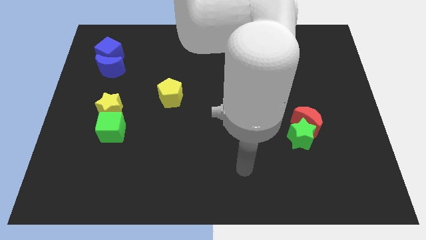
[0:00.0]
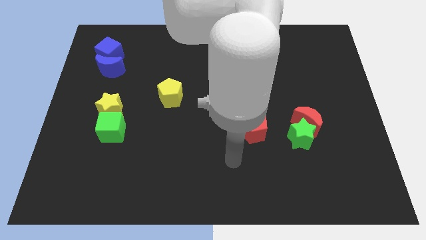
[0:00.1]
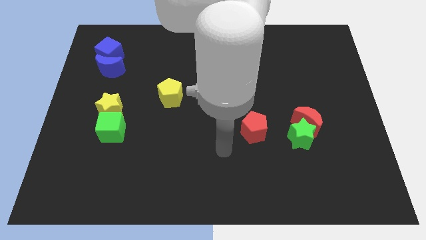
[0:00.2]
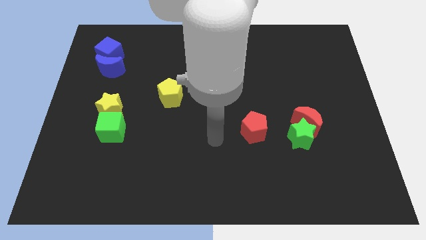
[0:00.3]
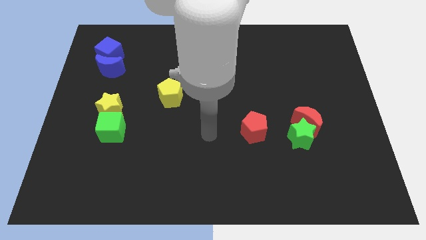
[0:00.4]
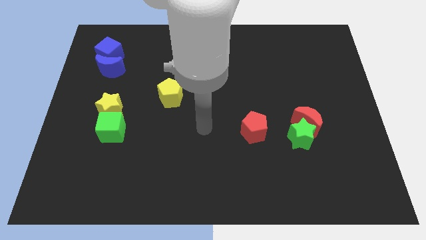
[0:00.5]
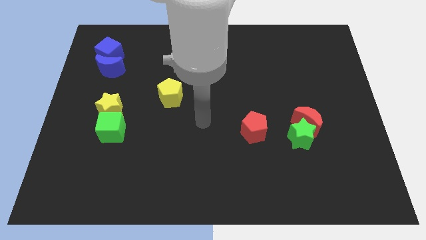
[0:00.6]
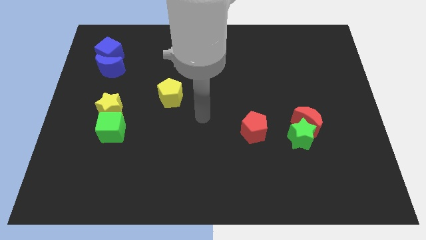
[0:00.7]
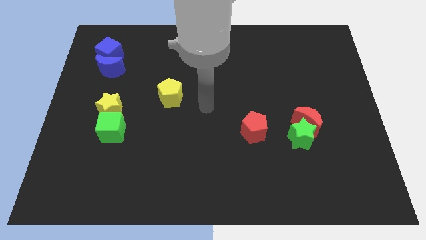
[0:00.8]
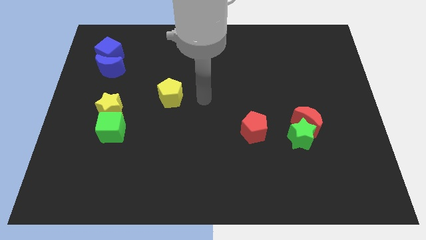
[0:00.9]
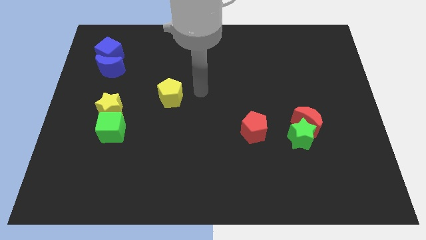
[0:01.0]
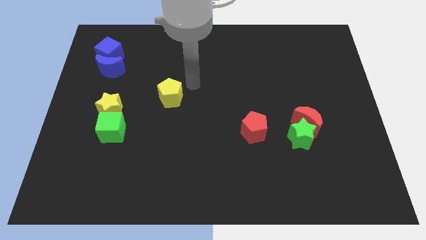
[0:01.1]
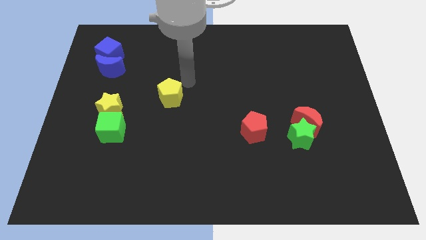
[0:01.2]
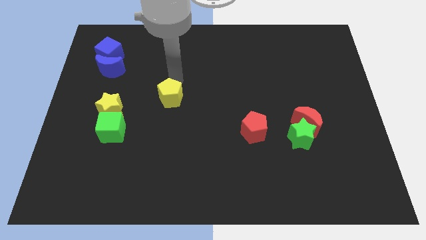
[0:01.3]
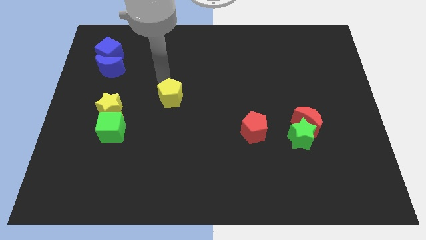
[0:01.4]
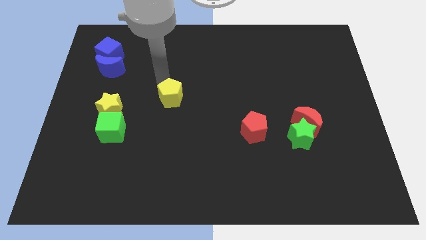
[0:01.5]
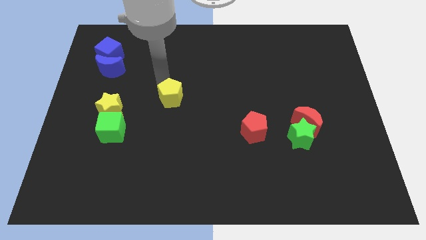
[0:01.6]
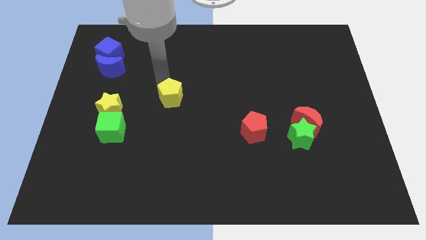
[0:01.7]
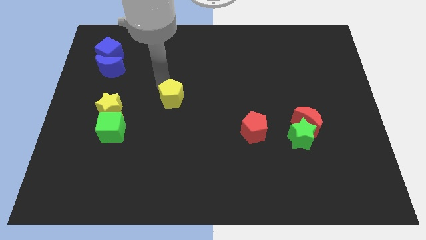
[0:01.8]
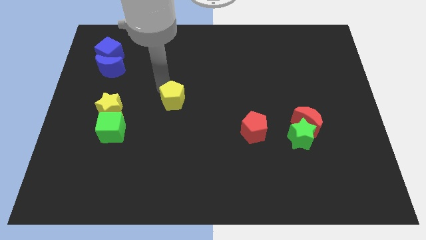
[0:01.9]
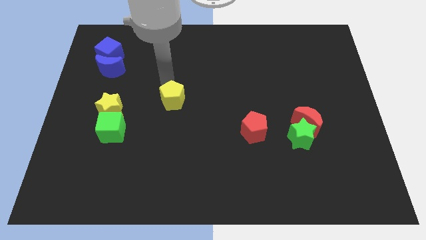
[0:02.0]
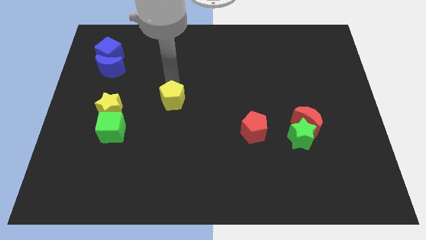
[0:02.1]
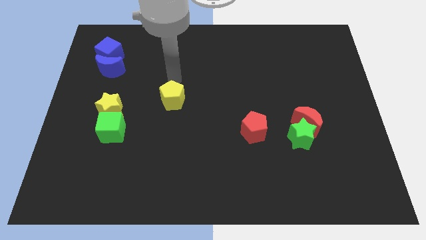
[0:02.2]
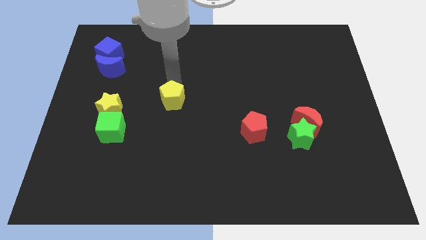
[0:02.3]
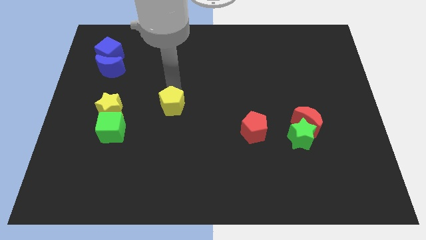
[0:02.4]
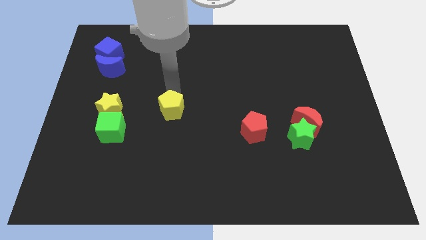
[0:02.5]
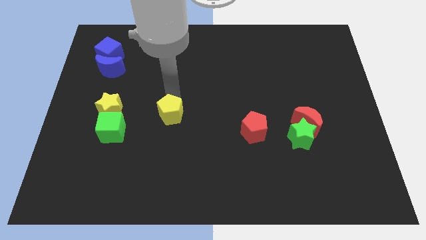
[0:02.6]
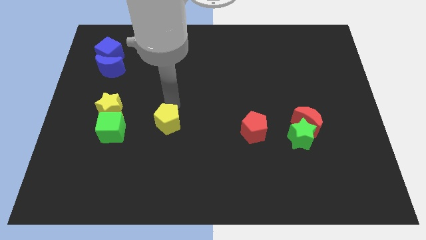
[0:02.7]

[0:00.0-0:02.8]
slightly slide the yellow pentagon downwards

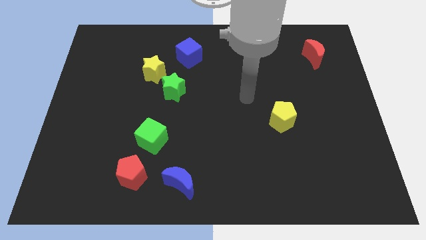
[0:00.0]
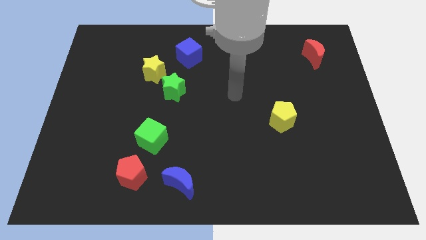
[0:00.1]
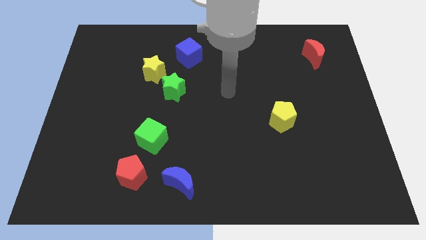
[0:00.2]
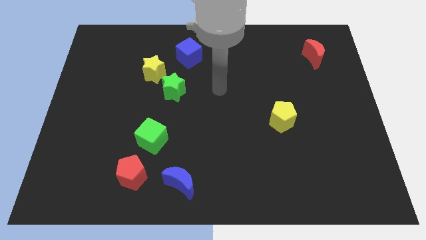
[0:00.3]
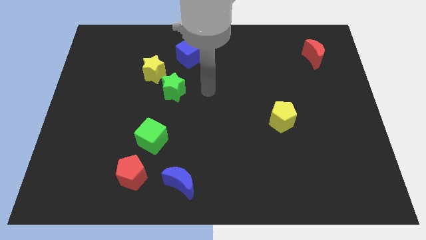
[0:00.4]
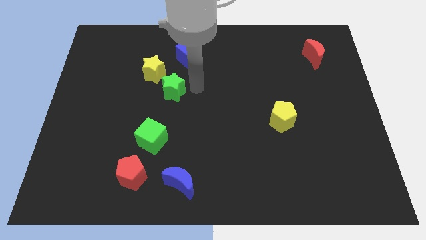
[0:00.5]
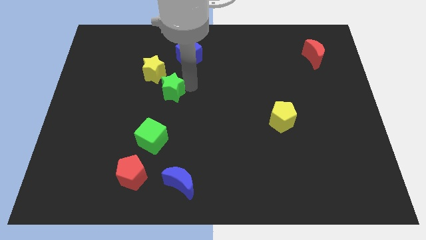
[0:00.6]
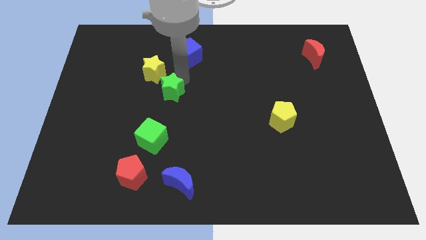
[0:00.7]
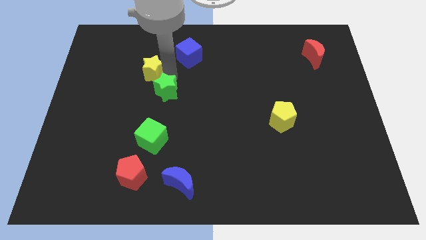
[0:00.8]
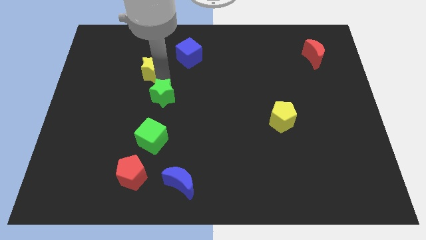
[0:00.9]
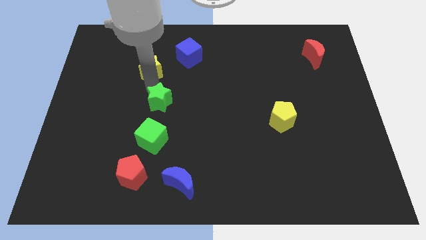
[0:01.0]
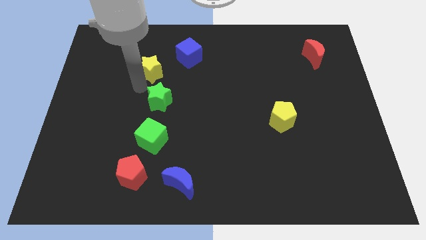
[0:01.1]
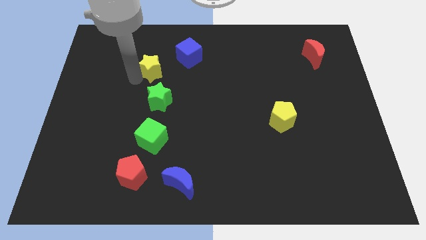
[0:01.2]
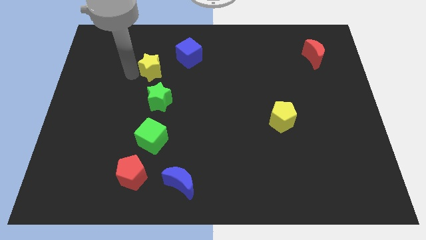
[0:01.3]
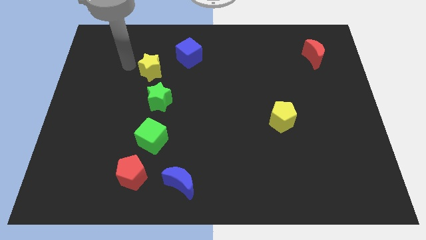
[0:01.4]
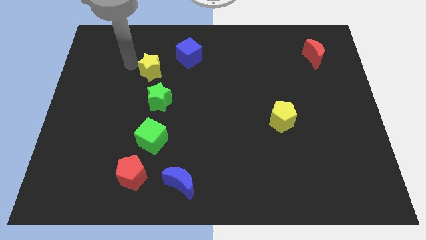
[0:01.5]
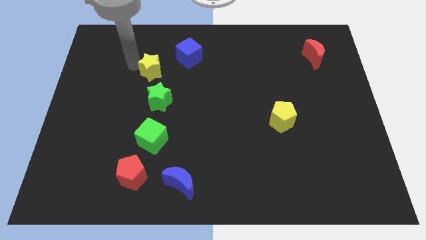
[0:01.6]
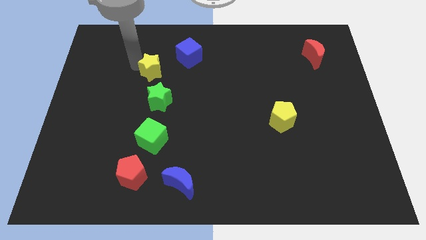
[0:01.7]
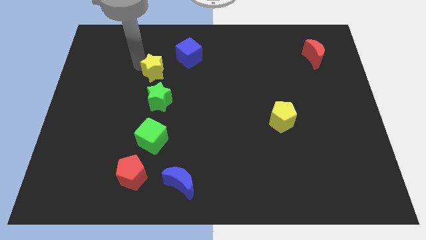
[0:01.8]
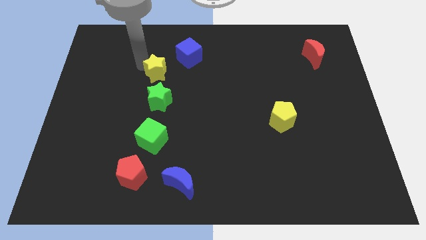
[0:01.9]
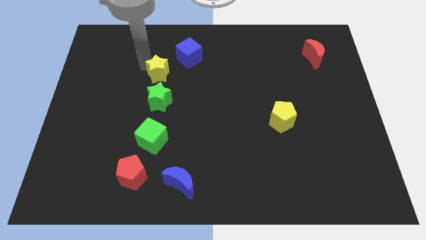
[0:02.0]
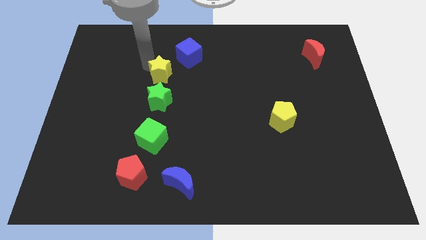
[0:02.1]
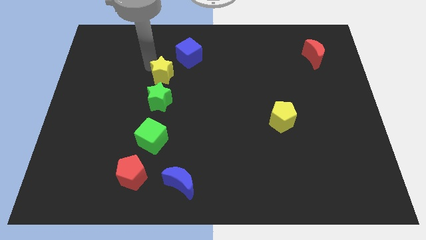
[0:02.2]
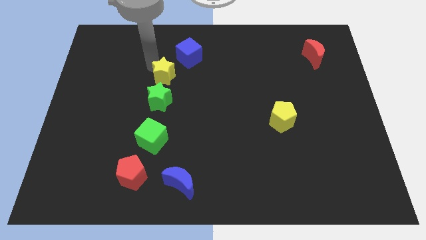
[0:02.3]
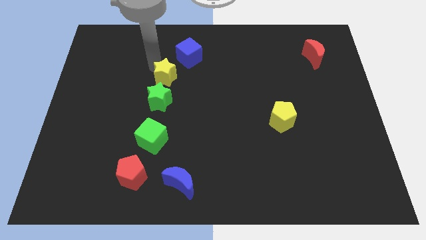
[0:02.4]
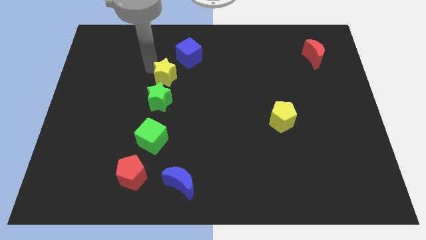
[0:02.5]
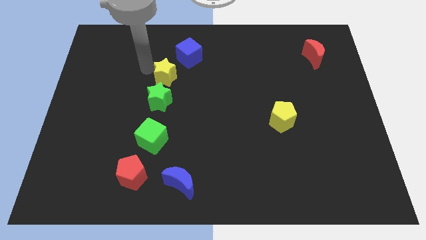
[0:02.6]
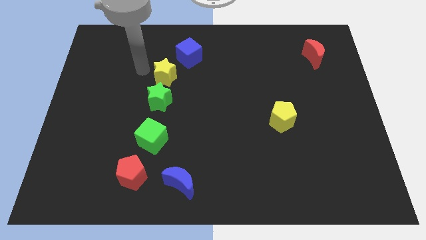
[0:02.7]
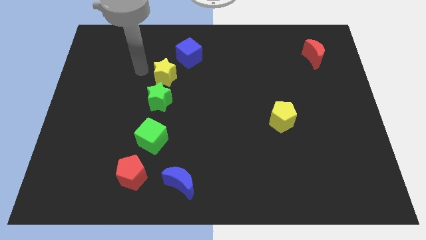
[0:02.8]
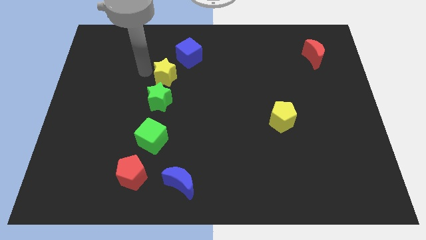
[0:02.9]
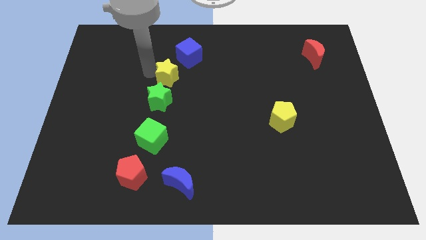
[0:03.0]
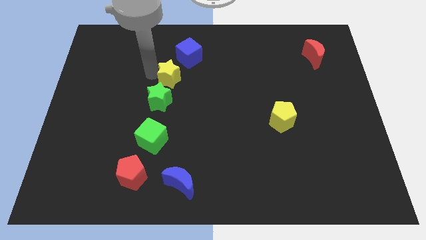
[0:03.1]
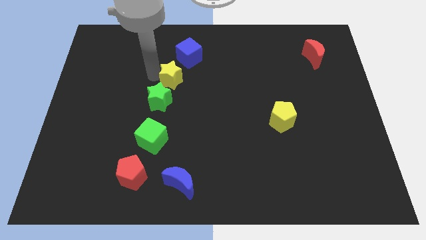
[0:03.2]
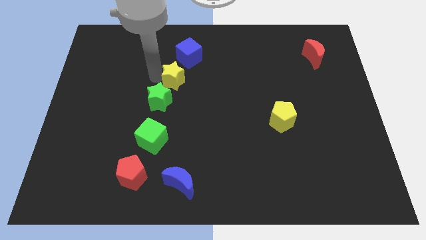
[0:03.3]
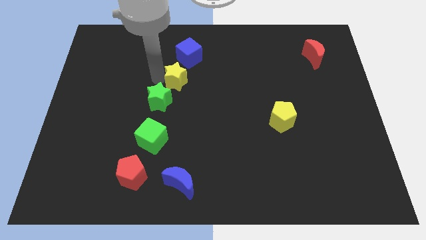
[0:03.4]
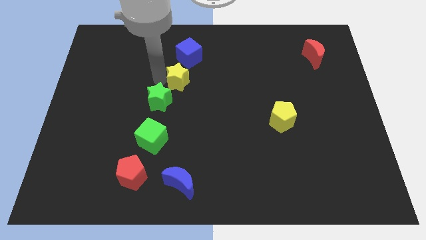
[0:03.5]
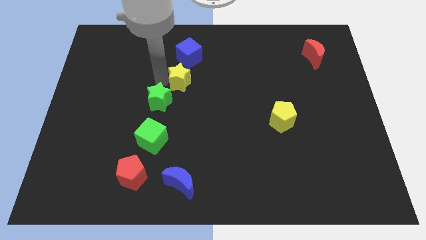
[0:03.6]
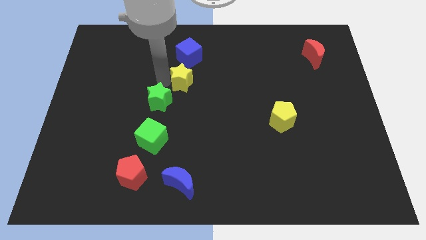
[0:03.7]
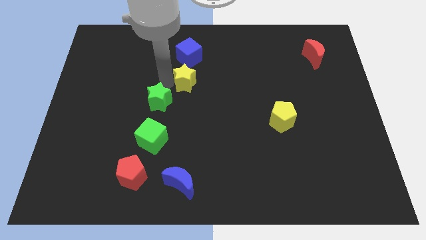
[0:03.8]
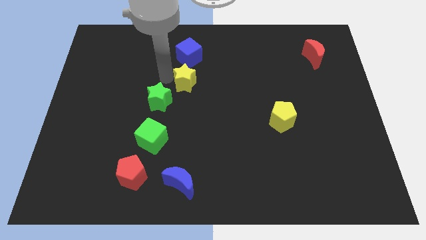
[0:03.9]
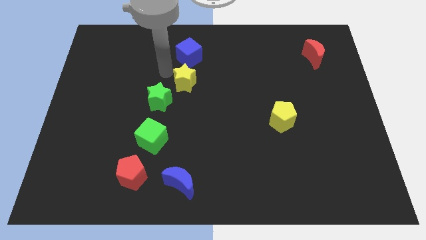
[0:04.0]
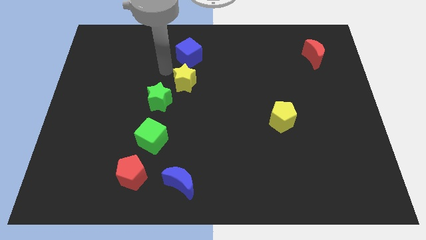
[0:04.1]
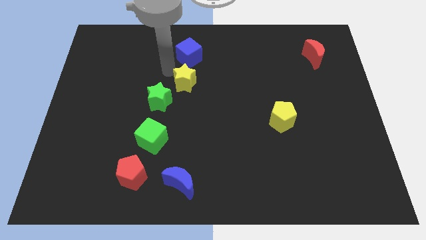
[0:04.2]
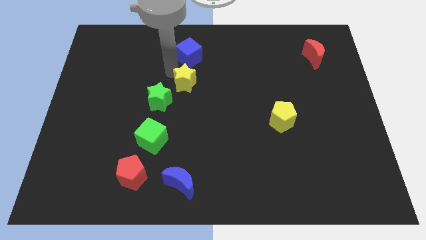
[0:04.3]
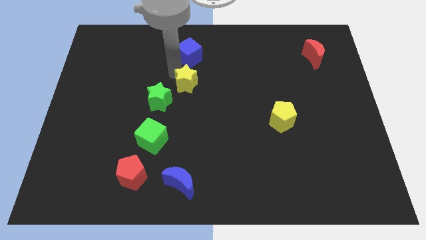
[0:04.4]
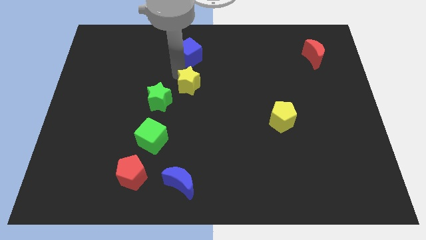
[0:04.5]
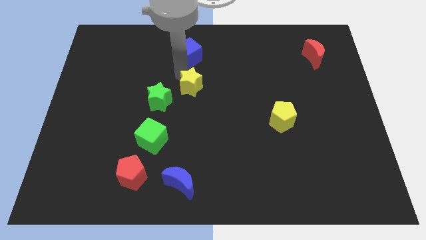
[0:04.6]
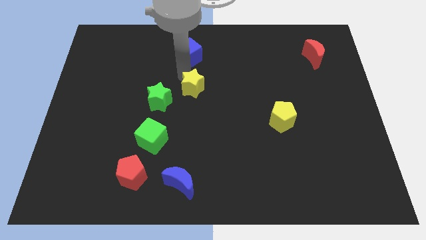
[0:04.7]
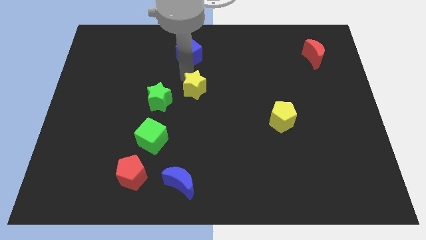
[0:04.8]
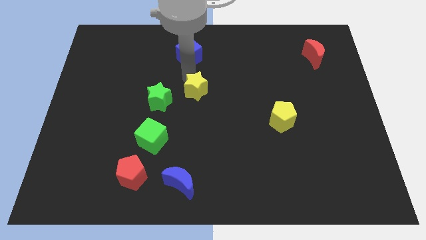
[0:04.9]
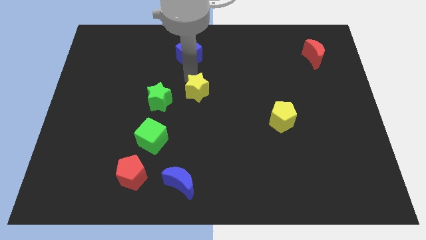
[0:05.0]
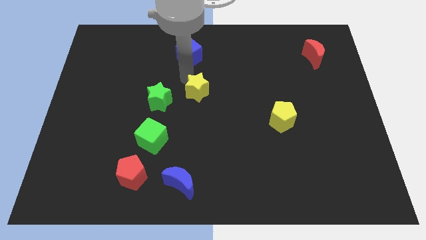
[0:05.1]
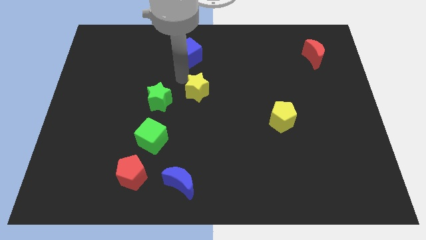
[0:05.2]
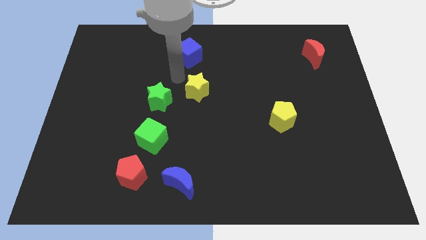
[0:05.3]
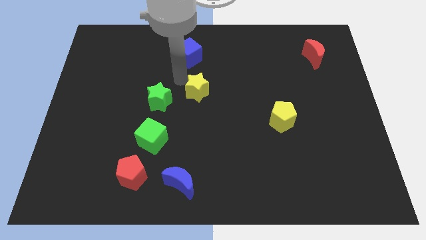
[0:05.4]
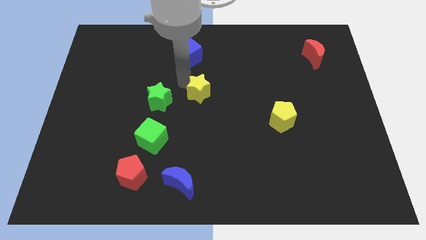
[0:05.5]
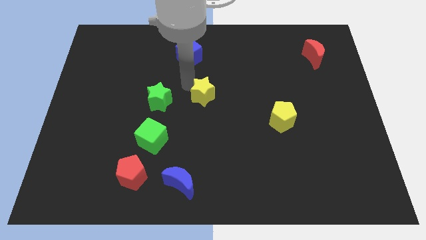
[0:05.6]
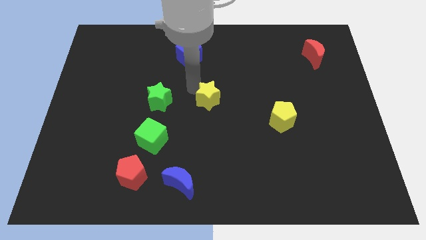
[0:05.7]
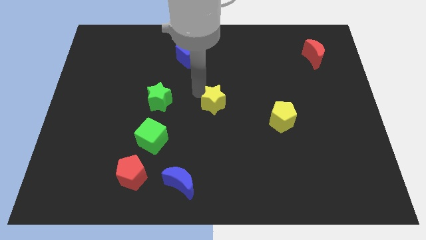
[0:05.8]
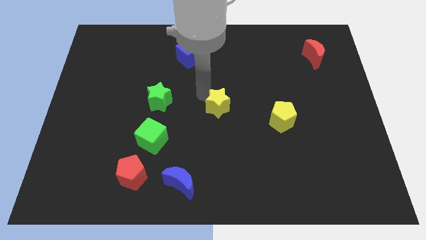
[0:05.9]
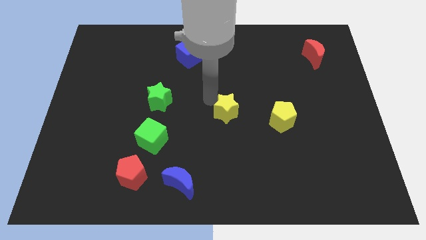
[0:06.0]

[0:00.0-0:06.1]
move the yellow star diagonally down and right
